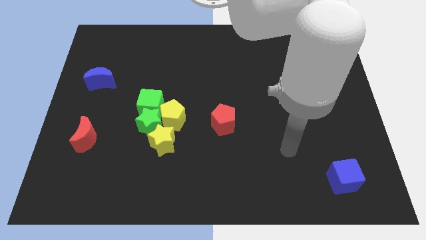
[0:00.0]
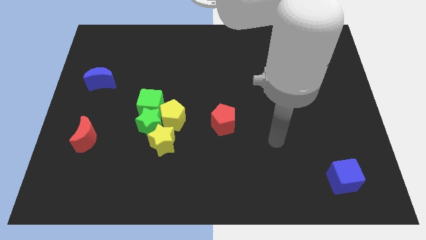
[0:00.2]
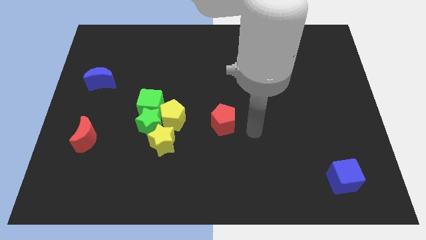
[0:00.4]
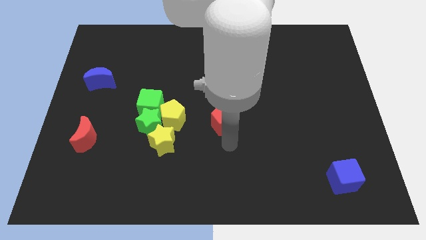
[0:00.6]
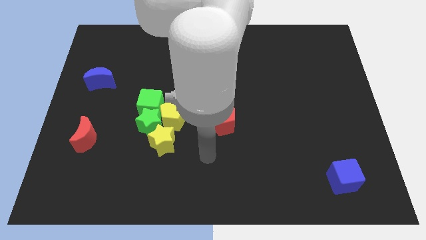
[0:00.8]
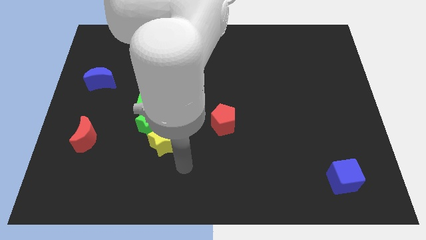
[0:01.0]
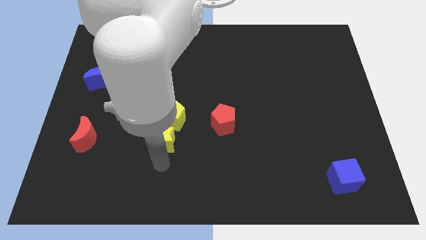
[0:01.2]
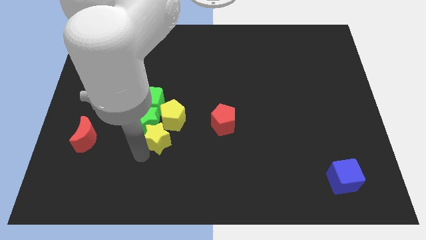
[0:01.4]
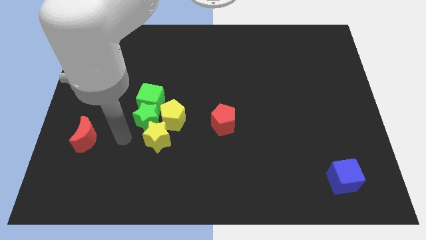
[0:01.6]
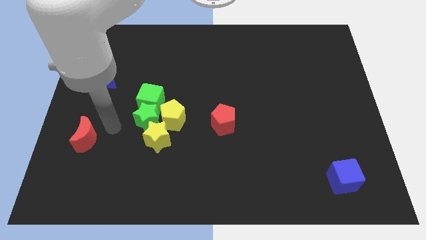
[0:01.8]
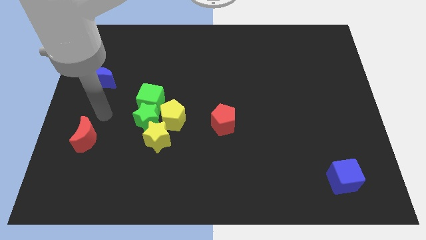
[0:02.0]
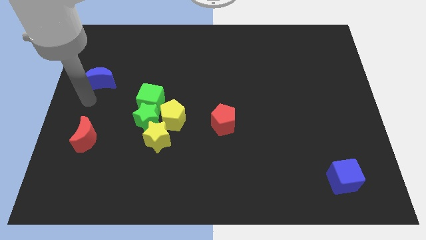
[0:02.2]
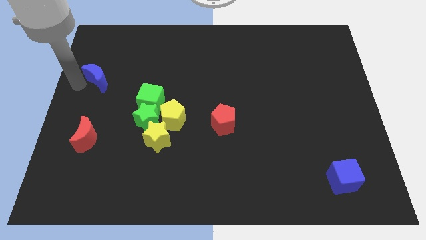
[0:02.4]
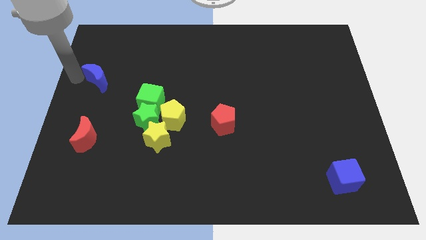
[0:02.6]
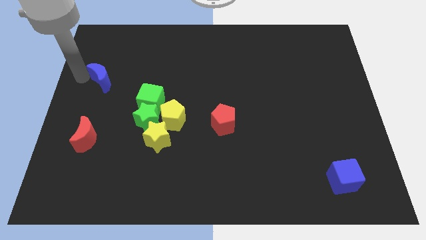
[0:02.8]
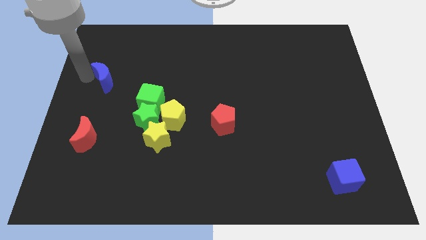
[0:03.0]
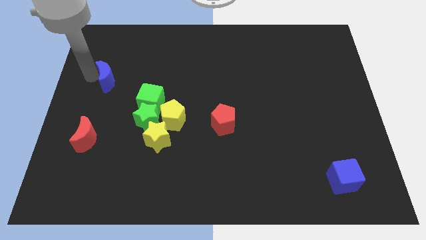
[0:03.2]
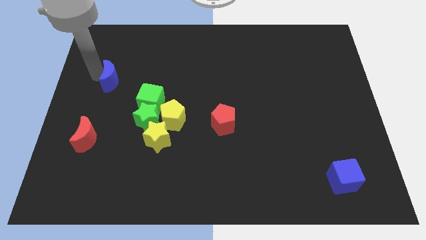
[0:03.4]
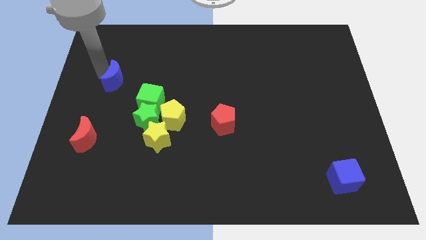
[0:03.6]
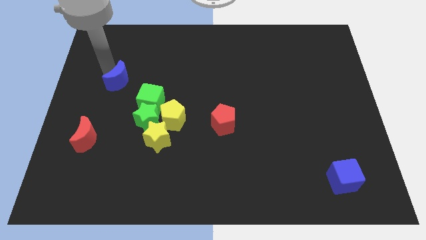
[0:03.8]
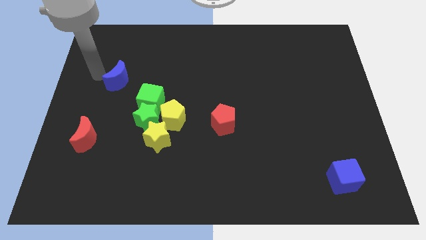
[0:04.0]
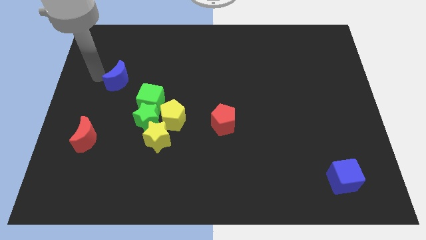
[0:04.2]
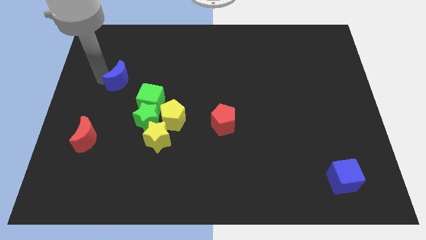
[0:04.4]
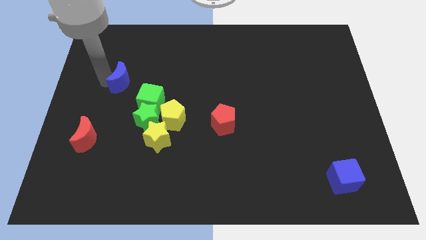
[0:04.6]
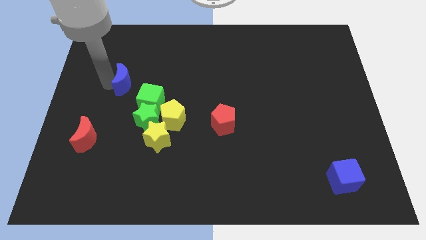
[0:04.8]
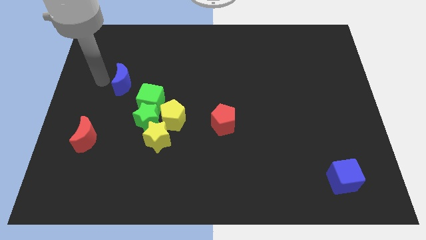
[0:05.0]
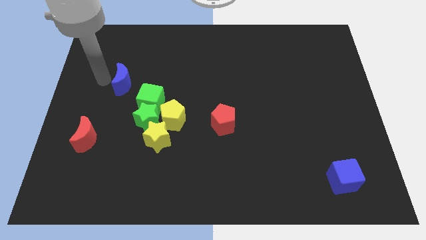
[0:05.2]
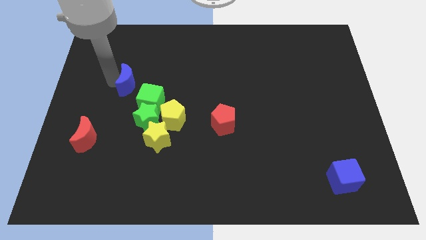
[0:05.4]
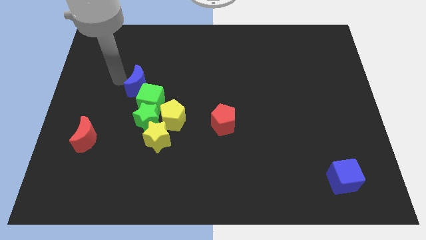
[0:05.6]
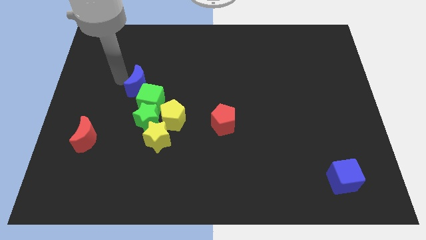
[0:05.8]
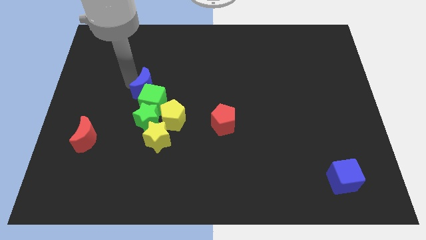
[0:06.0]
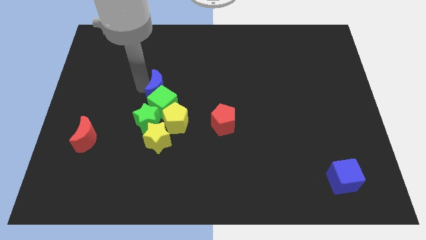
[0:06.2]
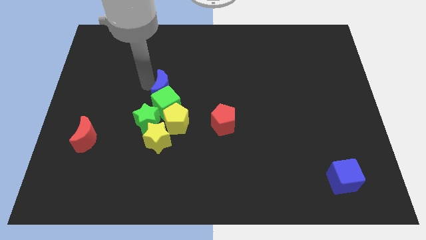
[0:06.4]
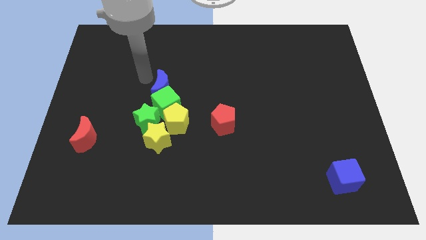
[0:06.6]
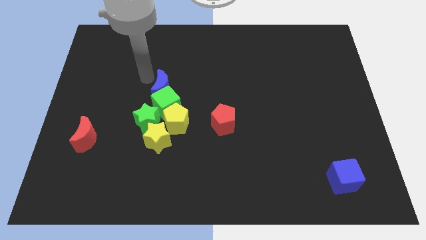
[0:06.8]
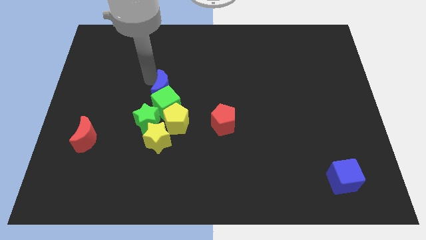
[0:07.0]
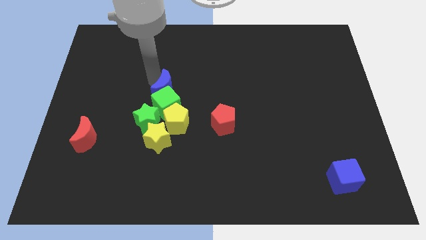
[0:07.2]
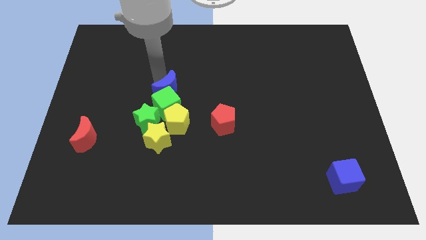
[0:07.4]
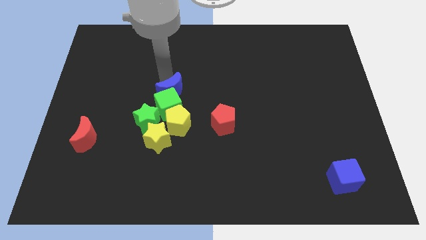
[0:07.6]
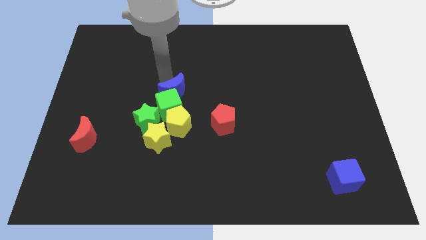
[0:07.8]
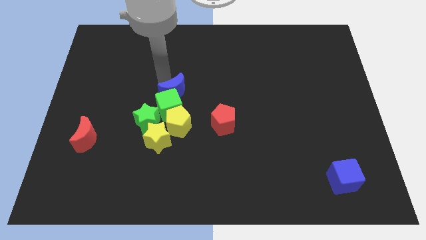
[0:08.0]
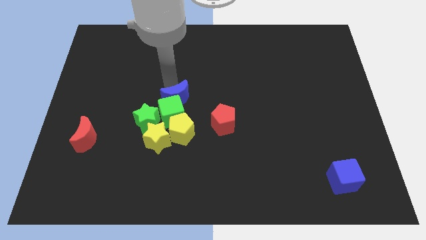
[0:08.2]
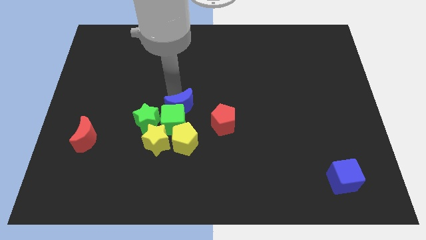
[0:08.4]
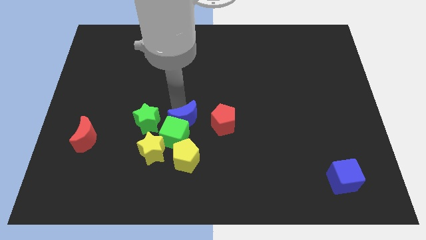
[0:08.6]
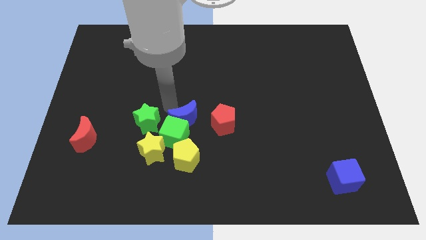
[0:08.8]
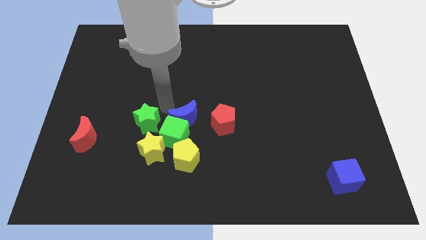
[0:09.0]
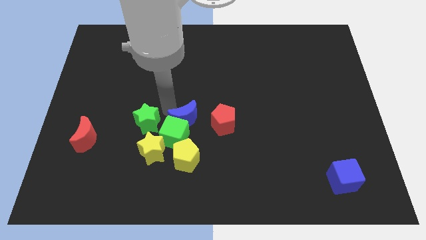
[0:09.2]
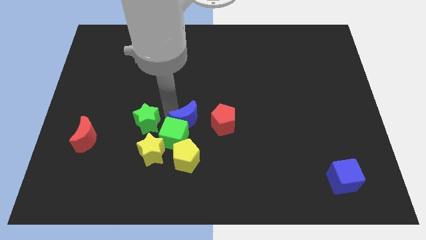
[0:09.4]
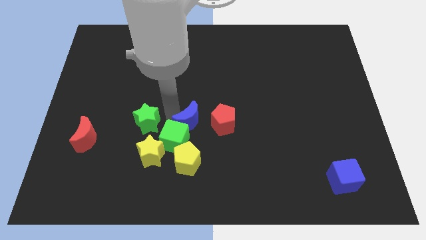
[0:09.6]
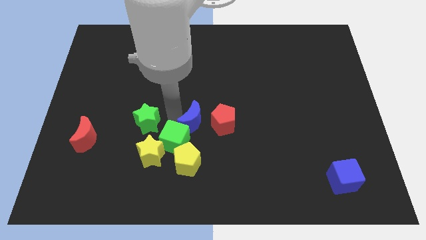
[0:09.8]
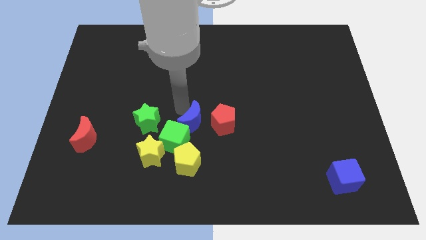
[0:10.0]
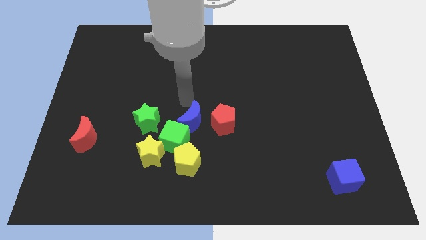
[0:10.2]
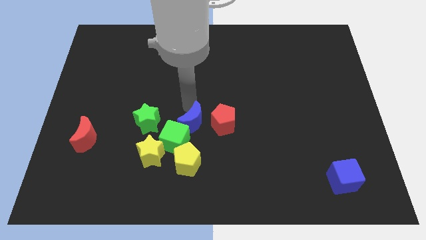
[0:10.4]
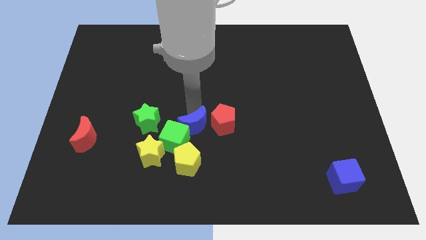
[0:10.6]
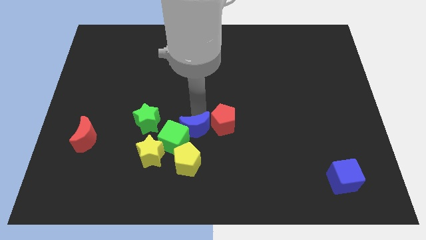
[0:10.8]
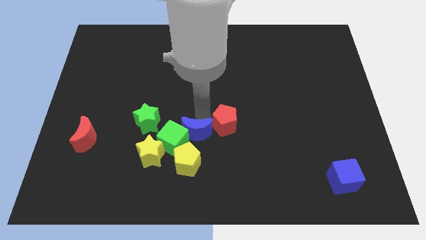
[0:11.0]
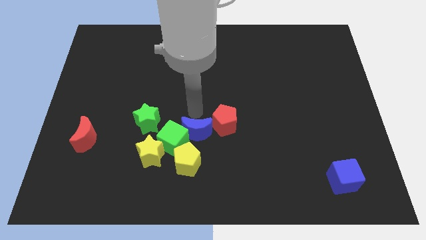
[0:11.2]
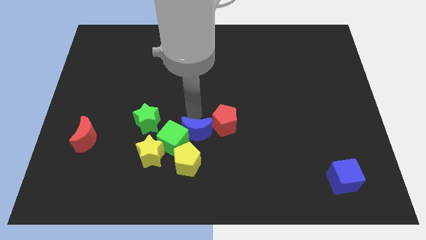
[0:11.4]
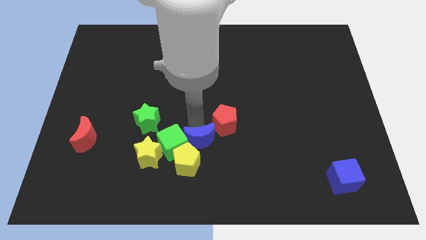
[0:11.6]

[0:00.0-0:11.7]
move the blue moon to the right side of the yellow star

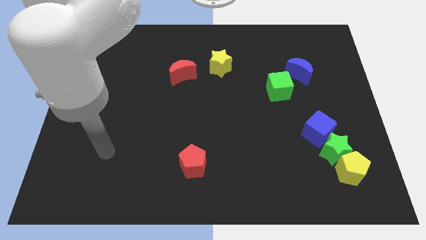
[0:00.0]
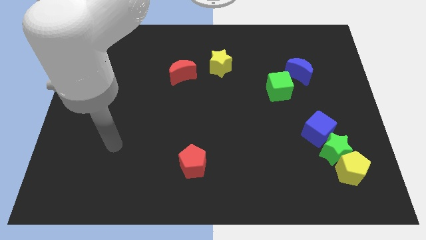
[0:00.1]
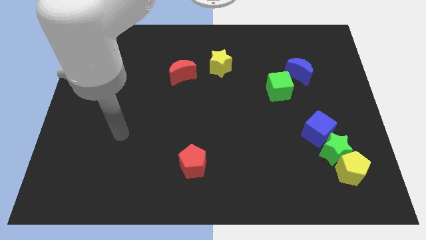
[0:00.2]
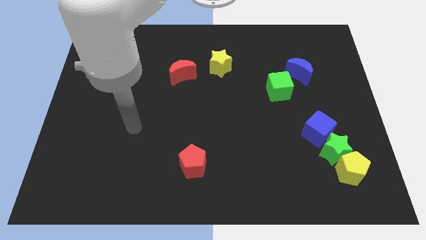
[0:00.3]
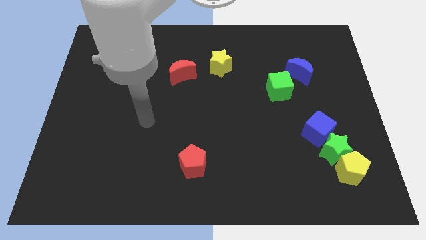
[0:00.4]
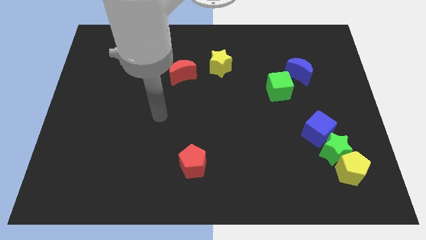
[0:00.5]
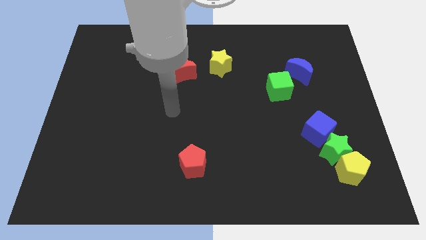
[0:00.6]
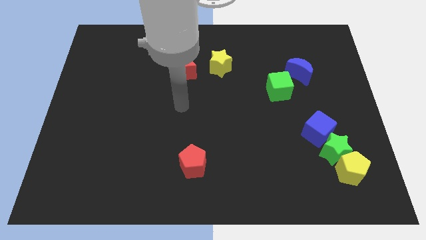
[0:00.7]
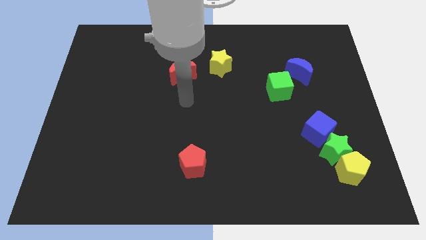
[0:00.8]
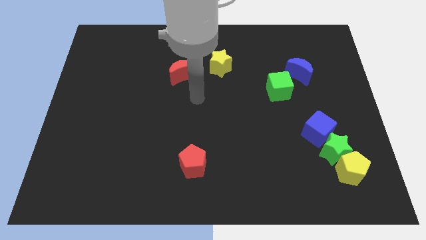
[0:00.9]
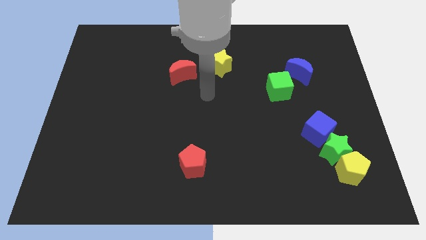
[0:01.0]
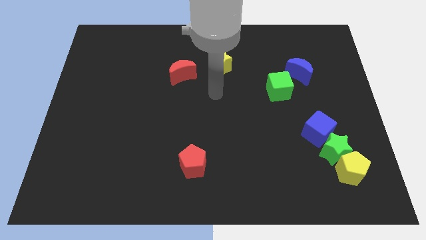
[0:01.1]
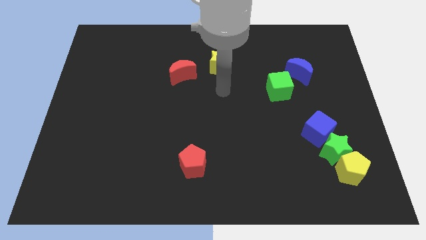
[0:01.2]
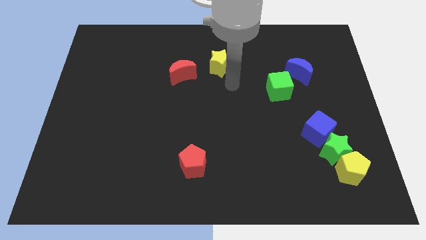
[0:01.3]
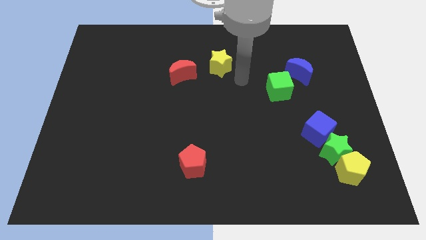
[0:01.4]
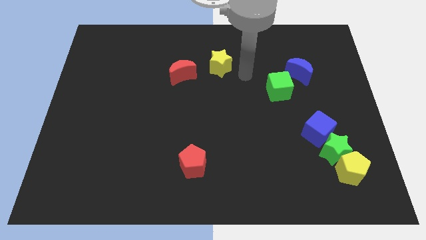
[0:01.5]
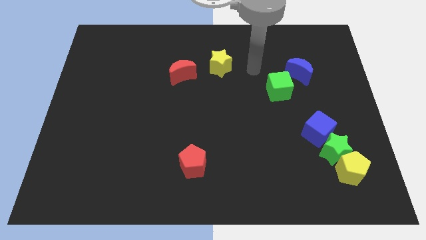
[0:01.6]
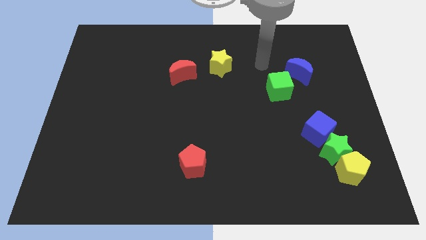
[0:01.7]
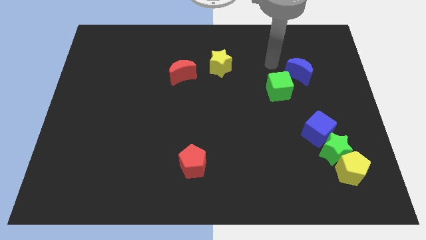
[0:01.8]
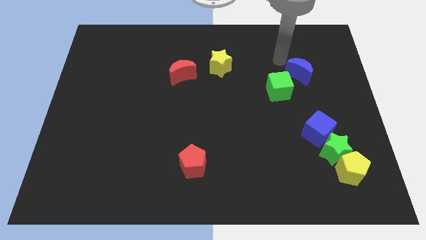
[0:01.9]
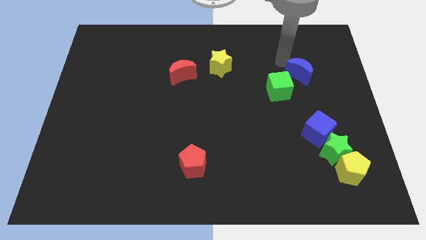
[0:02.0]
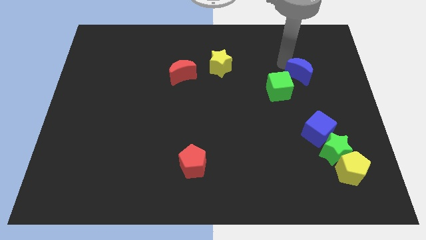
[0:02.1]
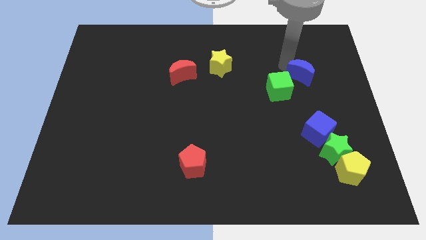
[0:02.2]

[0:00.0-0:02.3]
move the blue moon right of the green cube

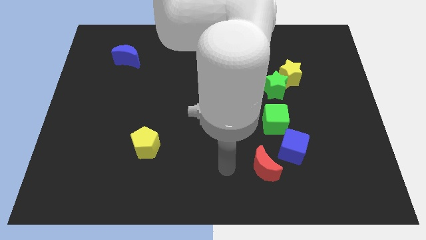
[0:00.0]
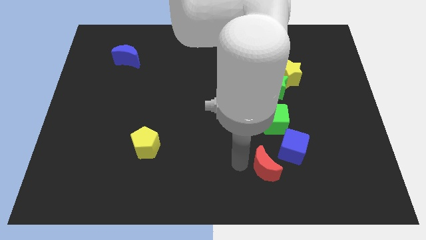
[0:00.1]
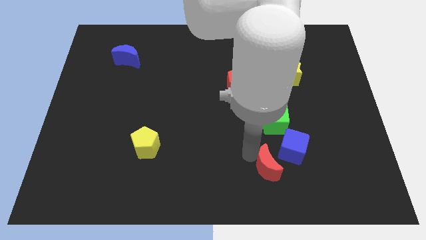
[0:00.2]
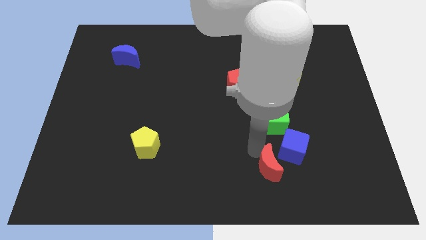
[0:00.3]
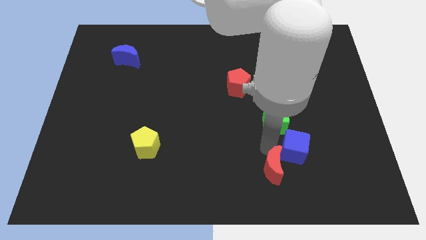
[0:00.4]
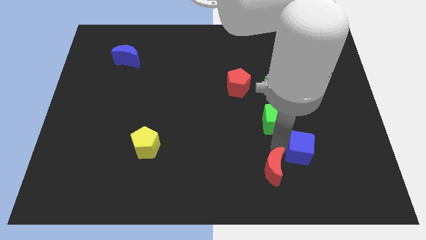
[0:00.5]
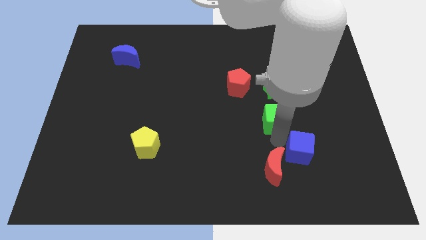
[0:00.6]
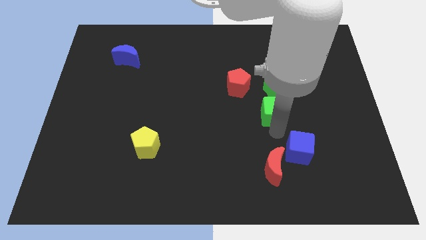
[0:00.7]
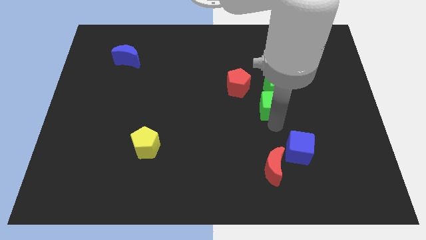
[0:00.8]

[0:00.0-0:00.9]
put the green cube to the bottom left of the yellow star
